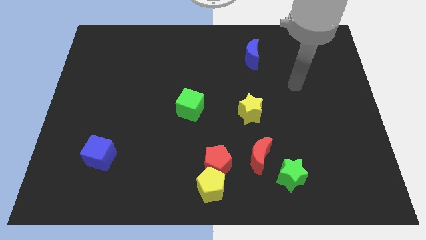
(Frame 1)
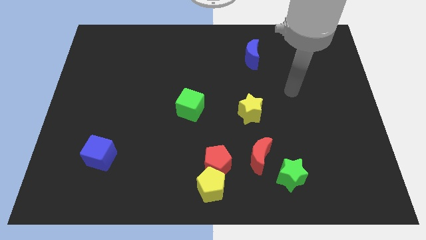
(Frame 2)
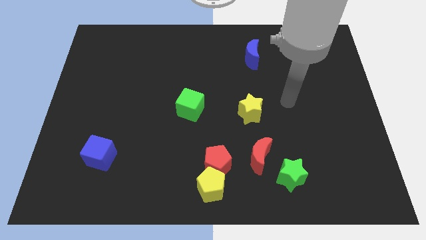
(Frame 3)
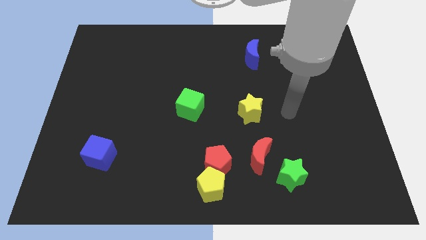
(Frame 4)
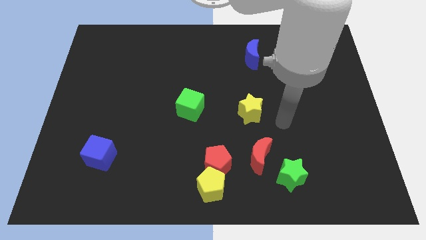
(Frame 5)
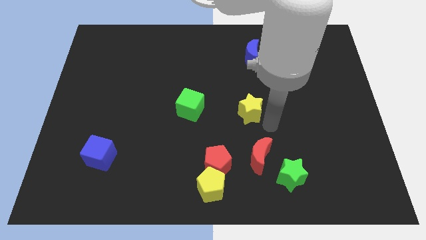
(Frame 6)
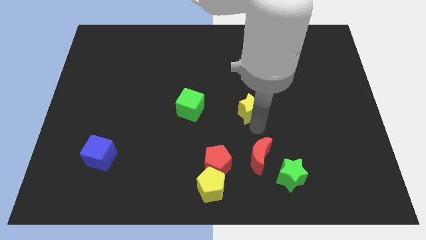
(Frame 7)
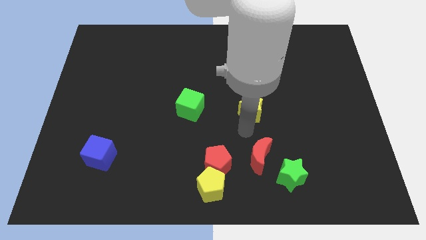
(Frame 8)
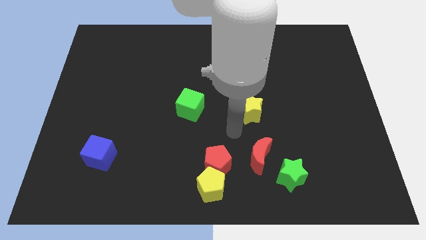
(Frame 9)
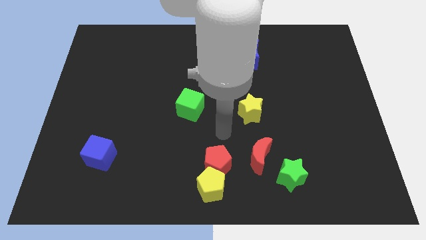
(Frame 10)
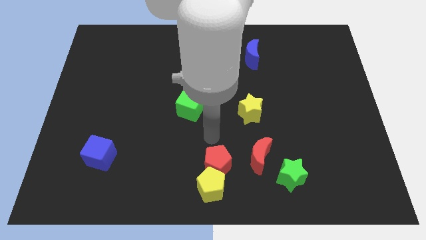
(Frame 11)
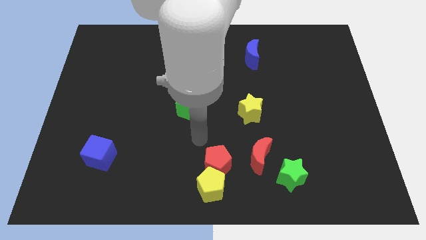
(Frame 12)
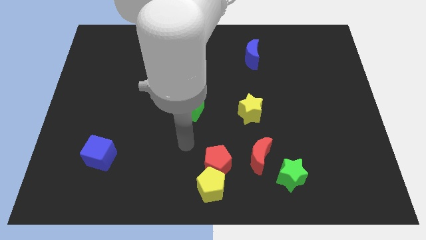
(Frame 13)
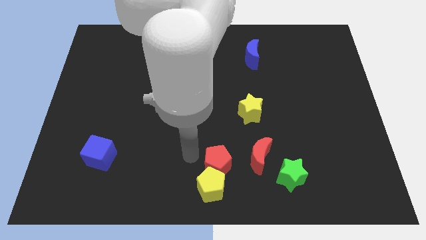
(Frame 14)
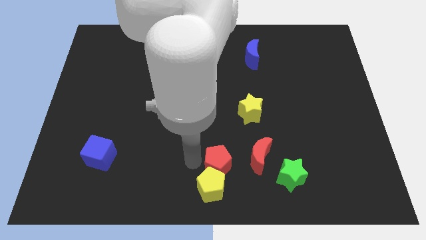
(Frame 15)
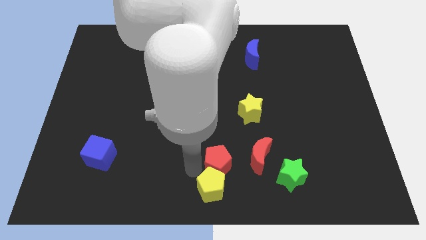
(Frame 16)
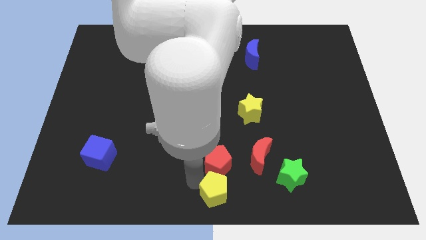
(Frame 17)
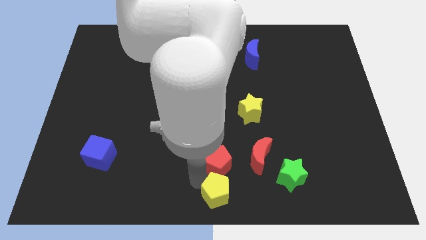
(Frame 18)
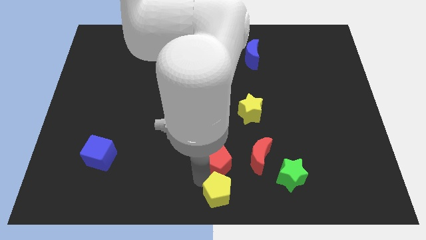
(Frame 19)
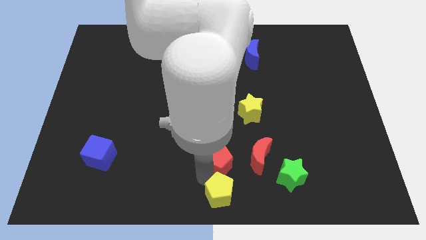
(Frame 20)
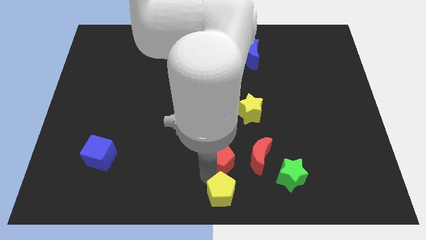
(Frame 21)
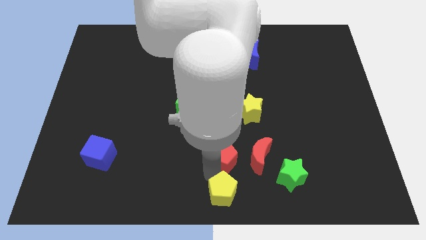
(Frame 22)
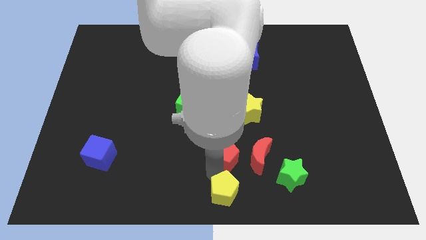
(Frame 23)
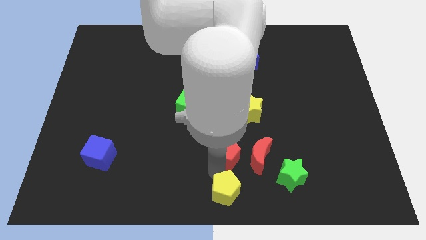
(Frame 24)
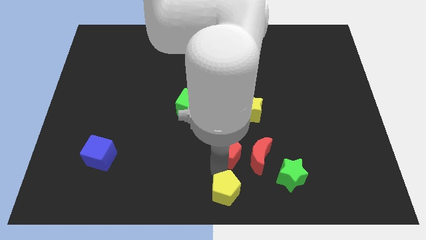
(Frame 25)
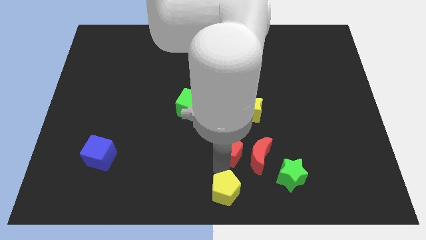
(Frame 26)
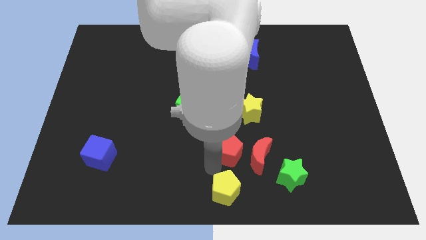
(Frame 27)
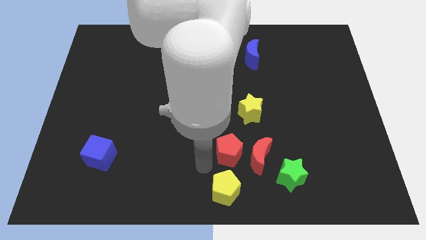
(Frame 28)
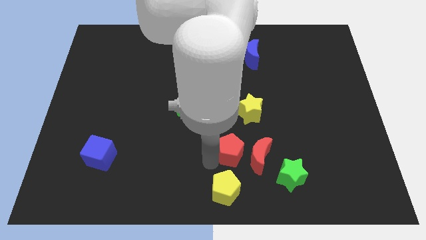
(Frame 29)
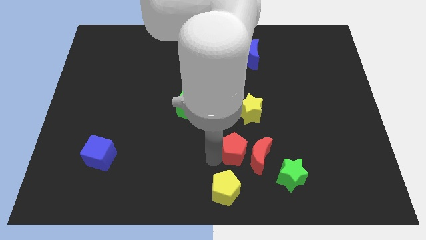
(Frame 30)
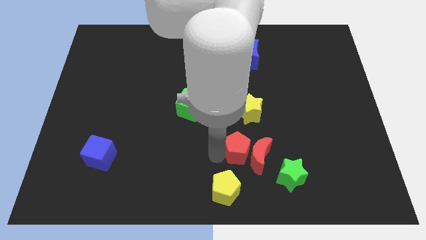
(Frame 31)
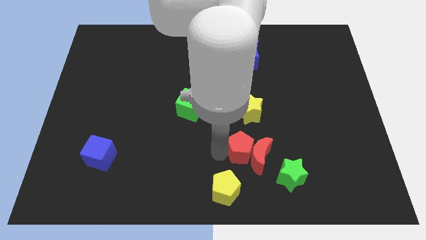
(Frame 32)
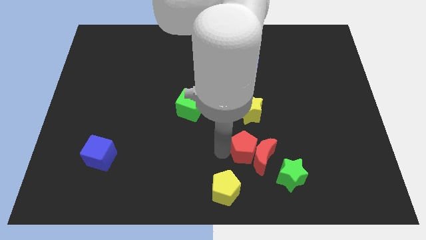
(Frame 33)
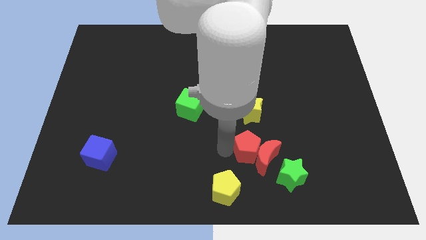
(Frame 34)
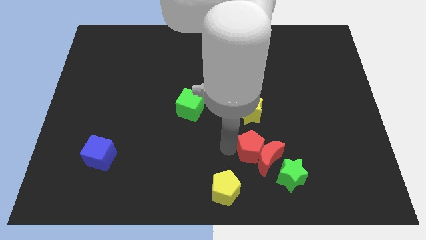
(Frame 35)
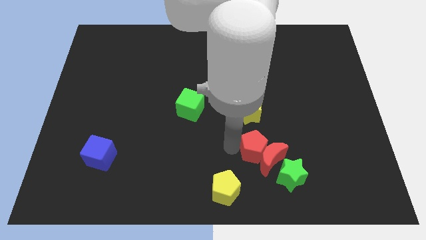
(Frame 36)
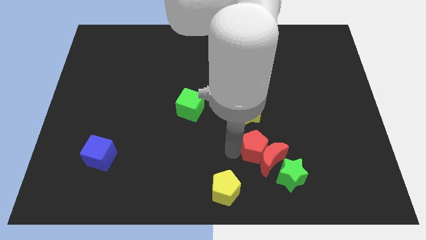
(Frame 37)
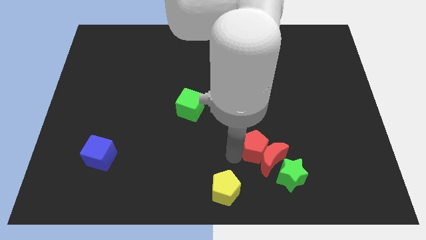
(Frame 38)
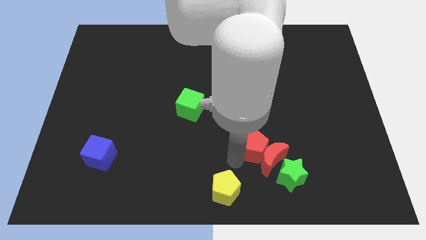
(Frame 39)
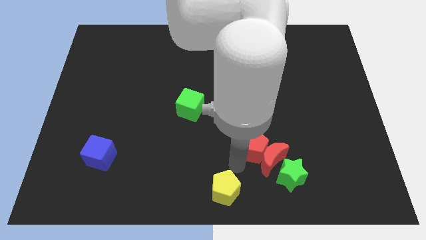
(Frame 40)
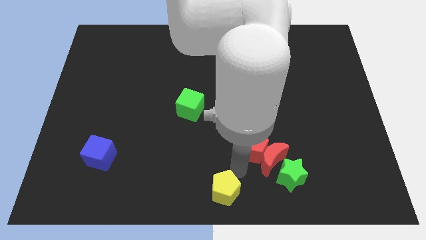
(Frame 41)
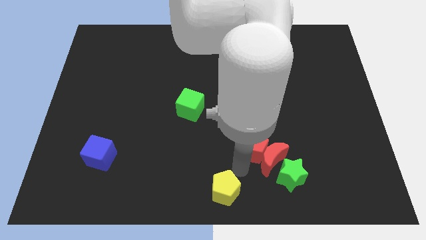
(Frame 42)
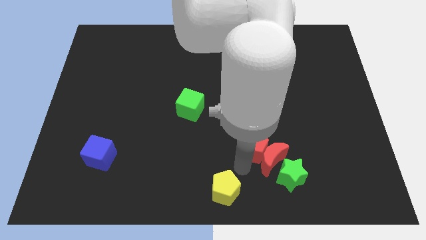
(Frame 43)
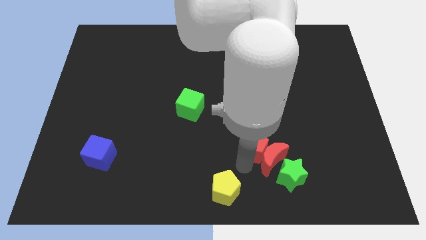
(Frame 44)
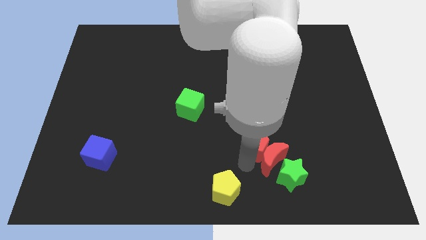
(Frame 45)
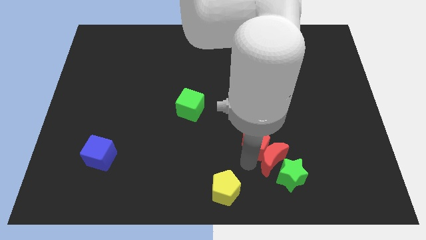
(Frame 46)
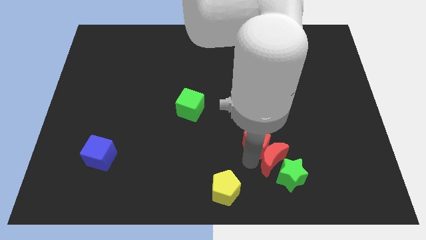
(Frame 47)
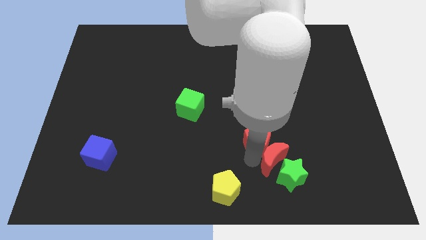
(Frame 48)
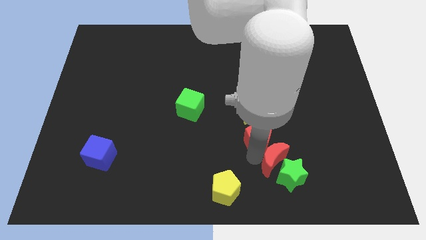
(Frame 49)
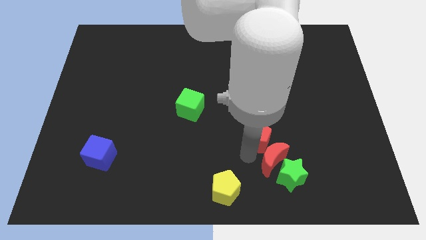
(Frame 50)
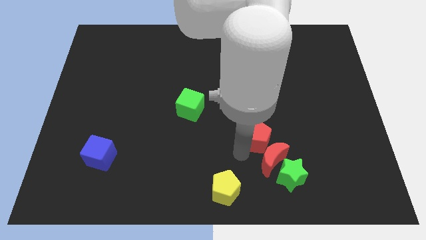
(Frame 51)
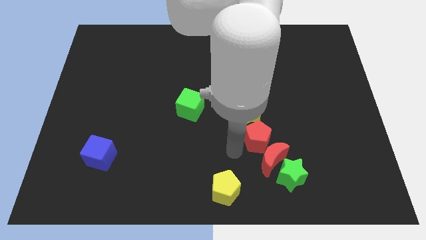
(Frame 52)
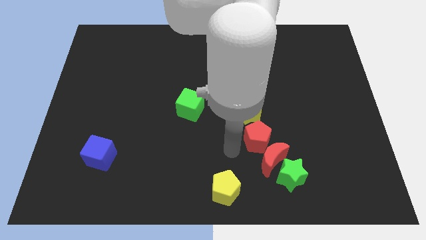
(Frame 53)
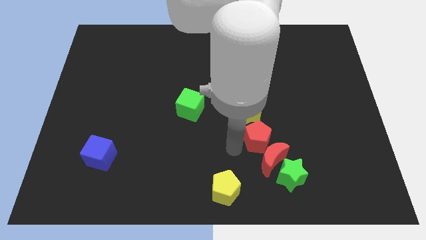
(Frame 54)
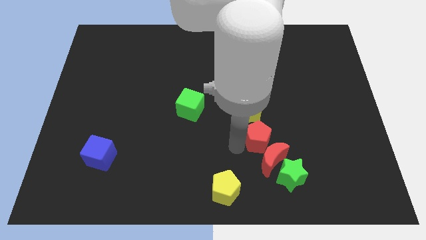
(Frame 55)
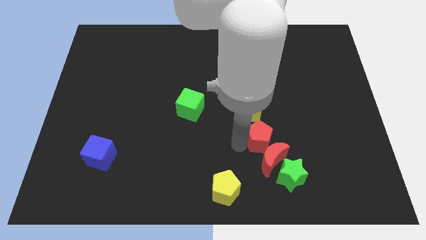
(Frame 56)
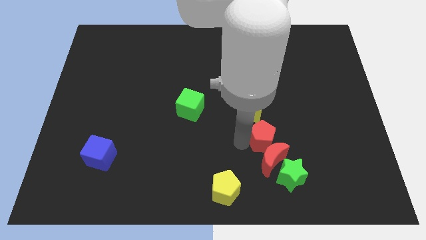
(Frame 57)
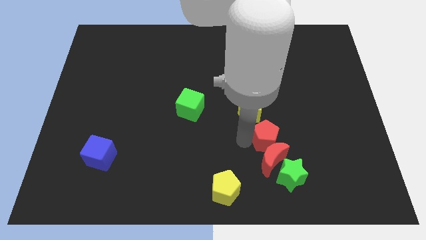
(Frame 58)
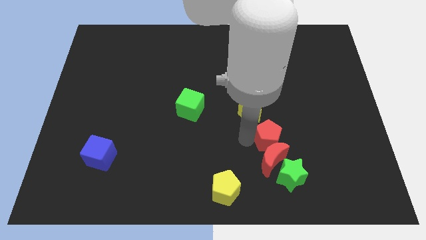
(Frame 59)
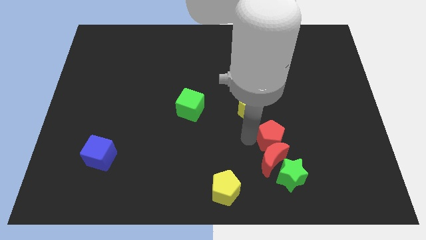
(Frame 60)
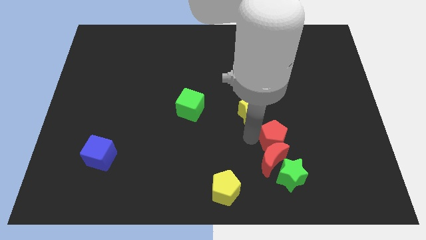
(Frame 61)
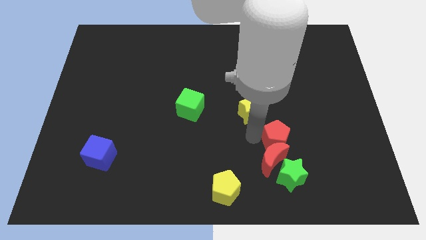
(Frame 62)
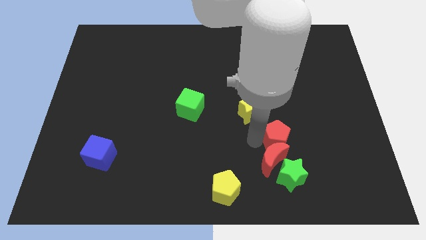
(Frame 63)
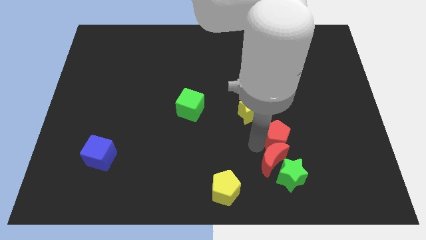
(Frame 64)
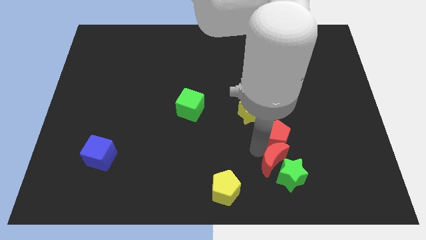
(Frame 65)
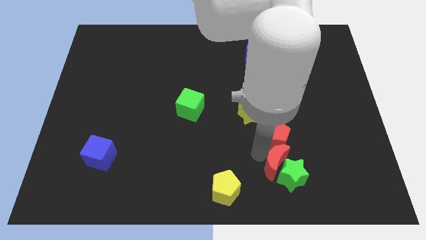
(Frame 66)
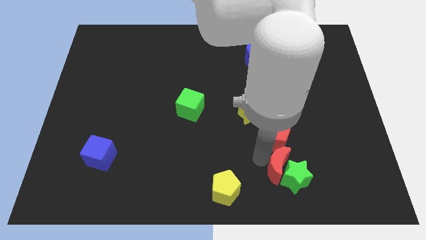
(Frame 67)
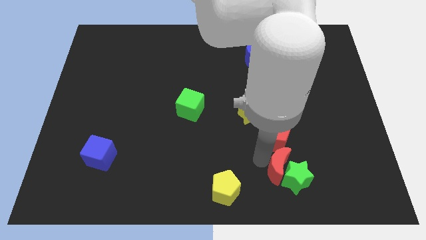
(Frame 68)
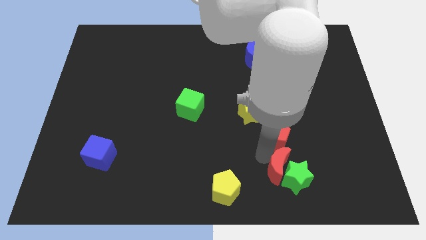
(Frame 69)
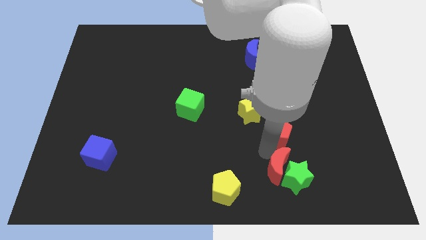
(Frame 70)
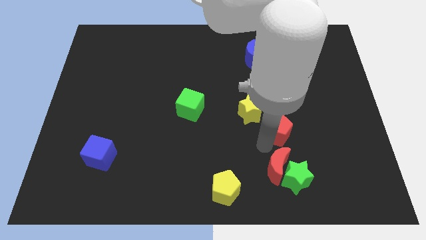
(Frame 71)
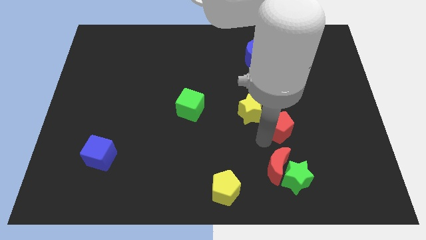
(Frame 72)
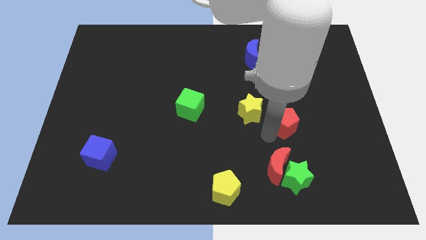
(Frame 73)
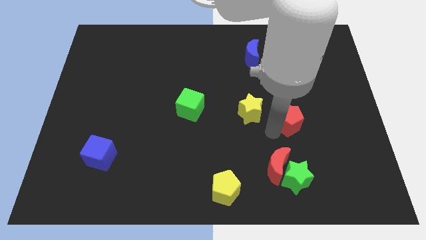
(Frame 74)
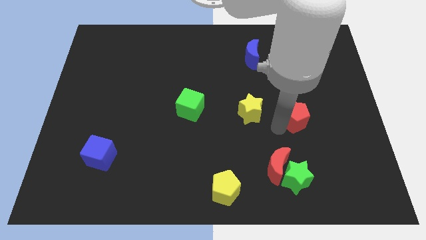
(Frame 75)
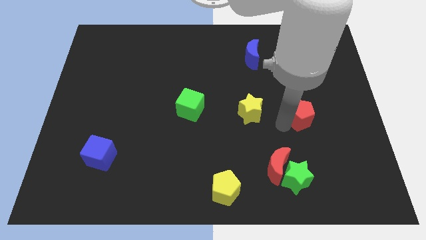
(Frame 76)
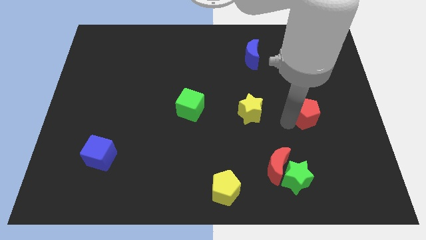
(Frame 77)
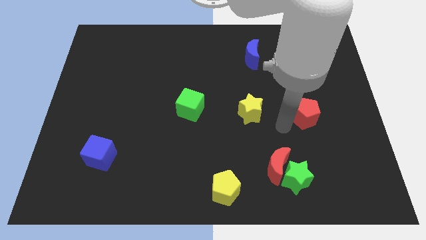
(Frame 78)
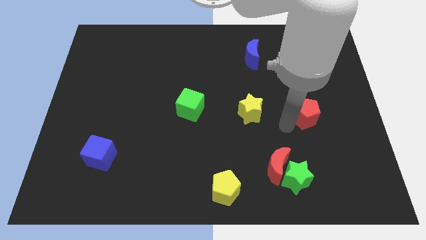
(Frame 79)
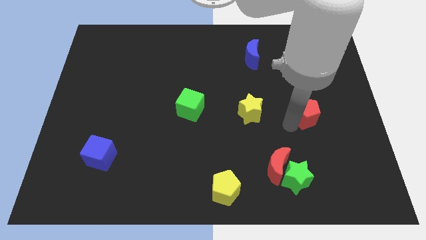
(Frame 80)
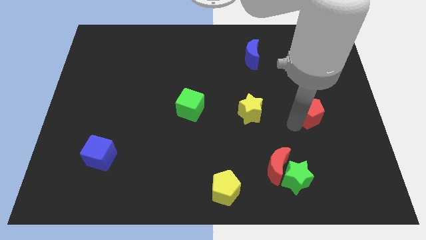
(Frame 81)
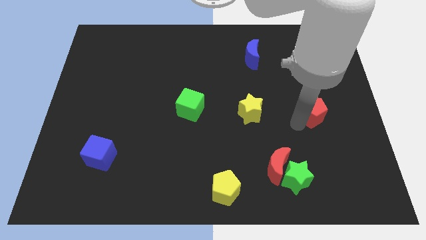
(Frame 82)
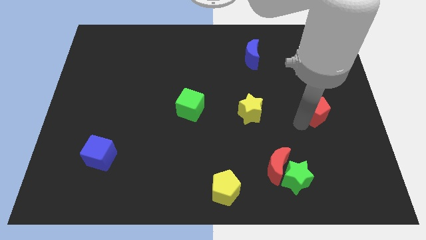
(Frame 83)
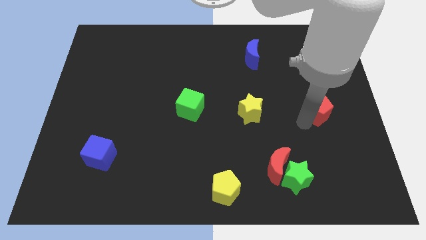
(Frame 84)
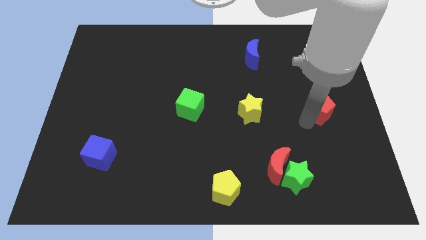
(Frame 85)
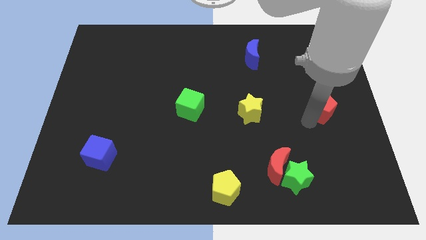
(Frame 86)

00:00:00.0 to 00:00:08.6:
put the red pentagon to the center right
